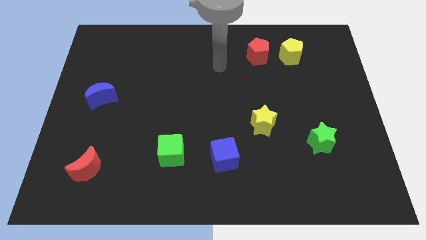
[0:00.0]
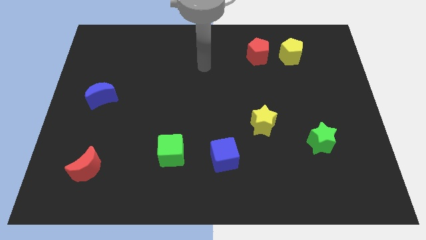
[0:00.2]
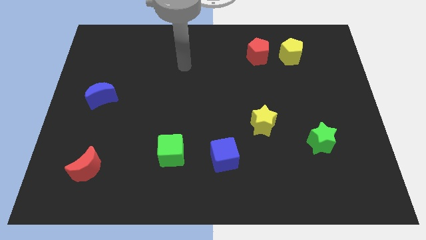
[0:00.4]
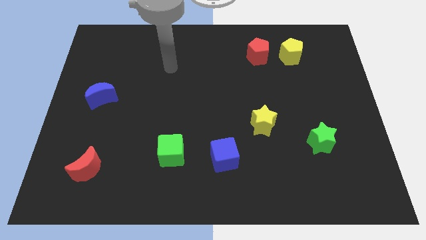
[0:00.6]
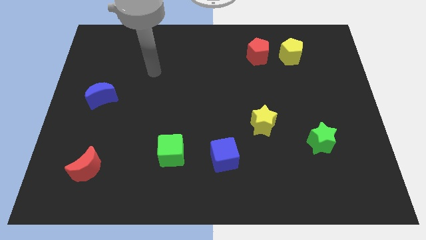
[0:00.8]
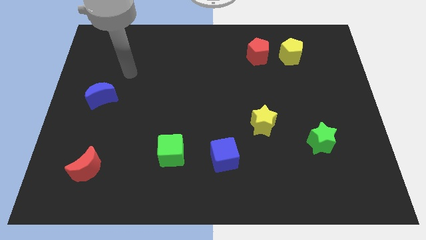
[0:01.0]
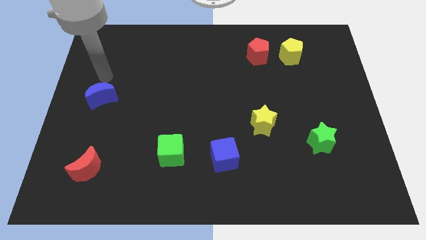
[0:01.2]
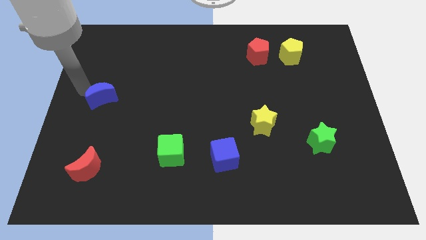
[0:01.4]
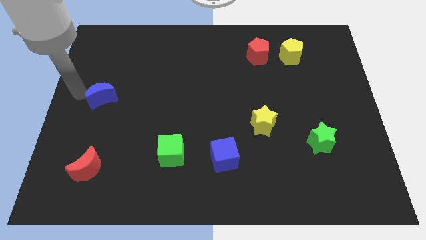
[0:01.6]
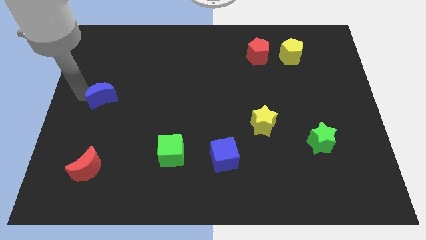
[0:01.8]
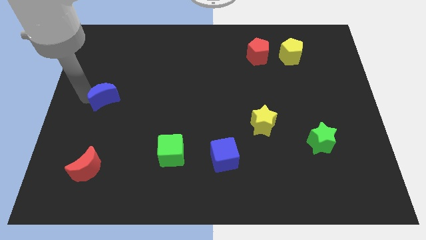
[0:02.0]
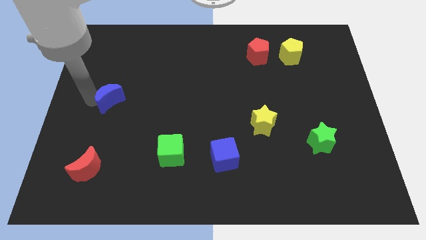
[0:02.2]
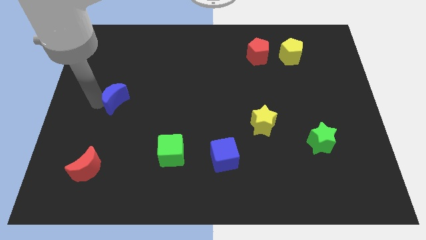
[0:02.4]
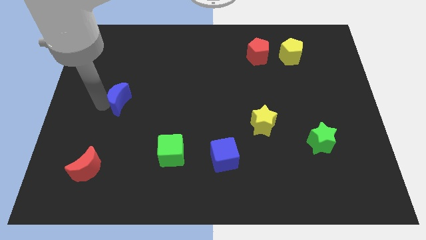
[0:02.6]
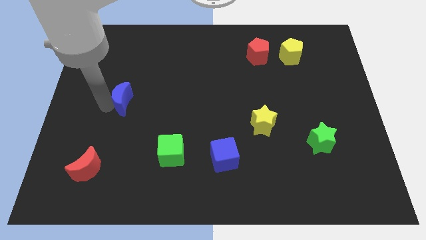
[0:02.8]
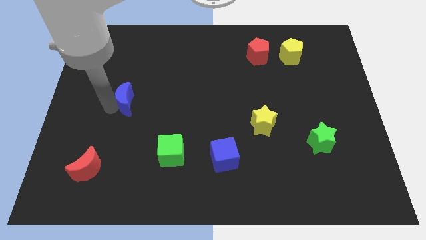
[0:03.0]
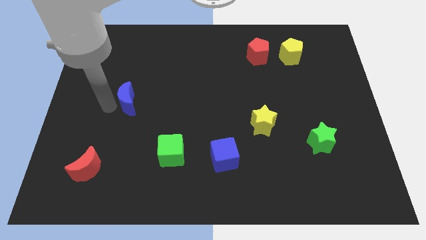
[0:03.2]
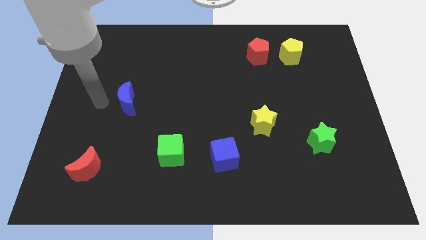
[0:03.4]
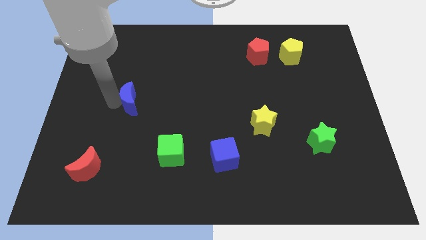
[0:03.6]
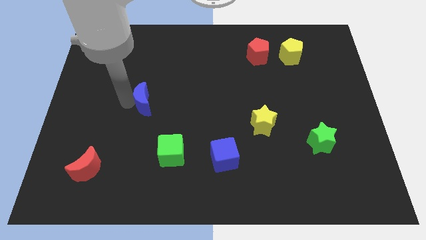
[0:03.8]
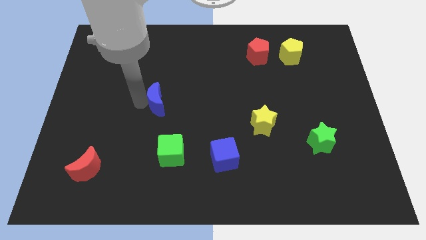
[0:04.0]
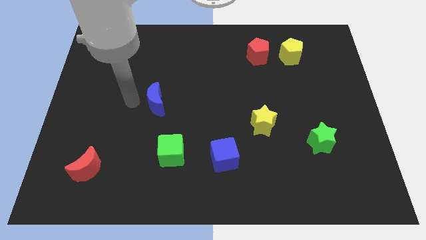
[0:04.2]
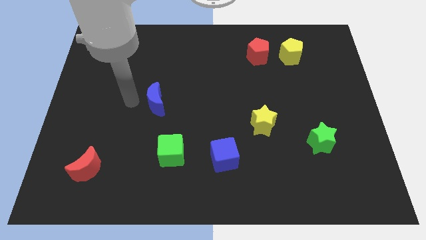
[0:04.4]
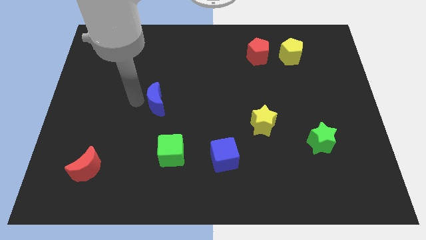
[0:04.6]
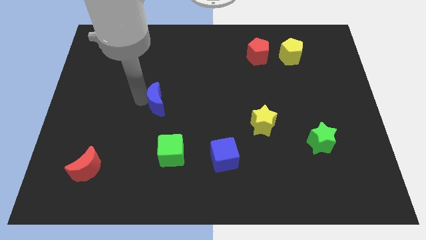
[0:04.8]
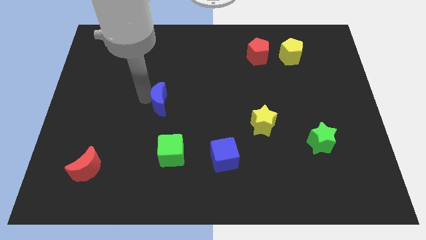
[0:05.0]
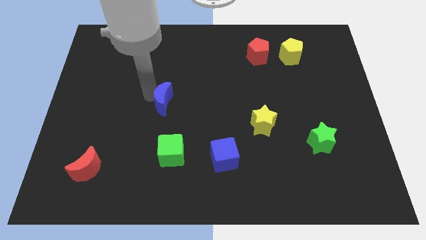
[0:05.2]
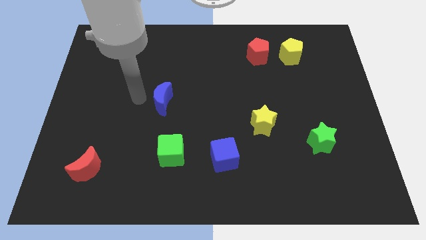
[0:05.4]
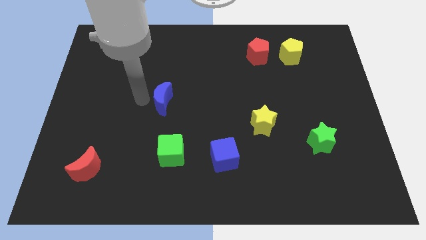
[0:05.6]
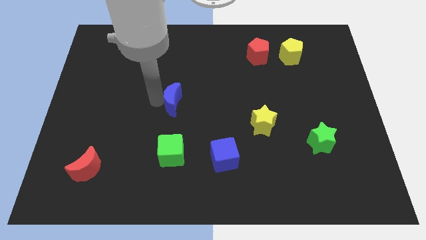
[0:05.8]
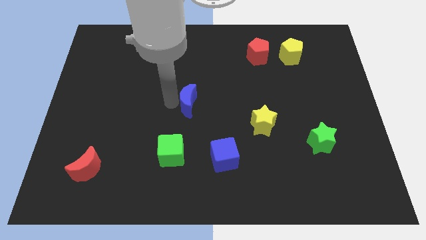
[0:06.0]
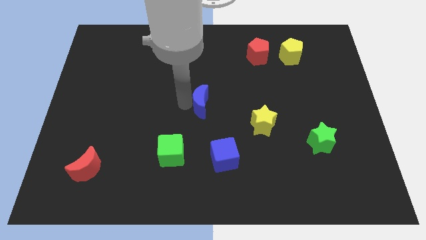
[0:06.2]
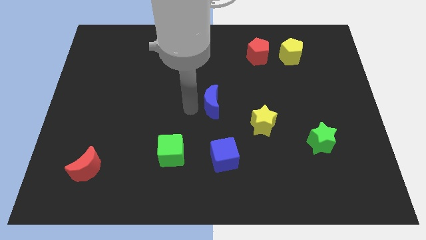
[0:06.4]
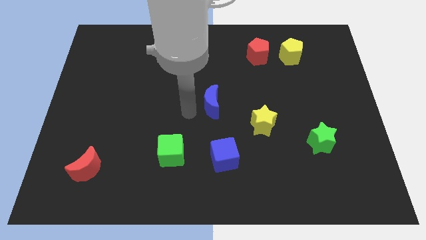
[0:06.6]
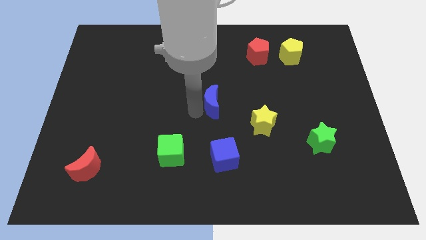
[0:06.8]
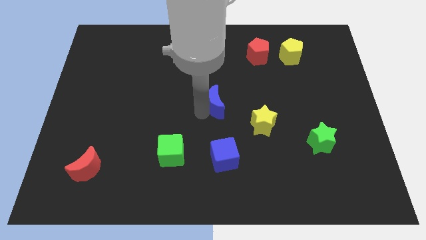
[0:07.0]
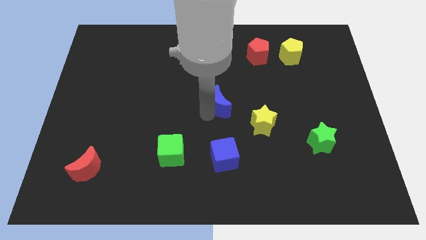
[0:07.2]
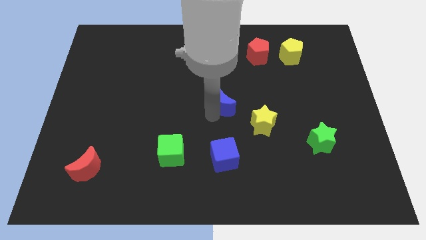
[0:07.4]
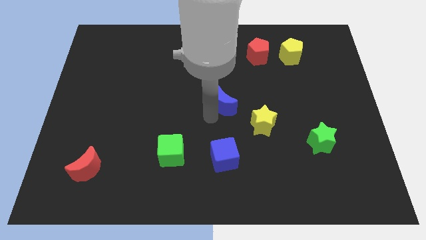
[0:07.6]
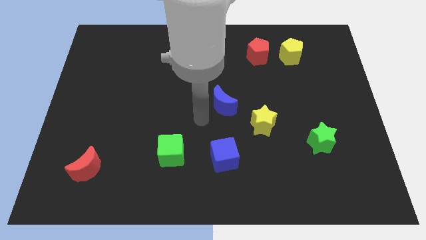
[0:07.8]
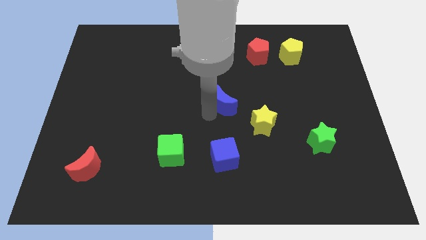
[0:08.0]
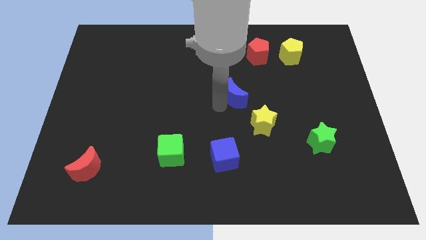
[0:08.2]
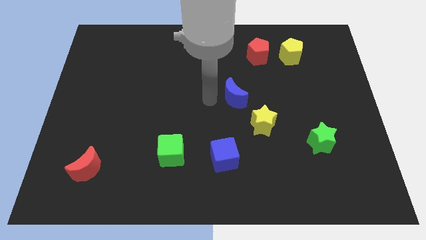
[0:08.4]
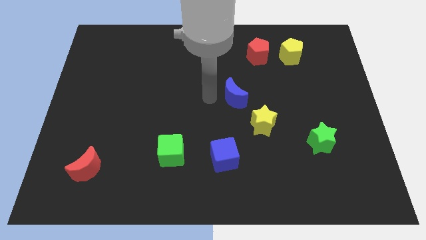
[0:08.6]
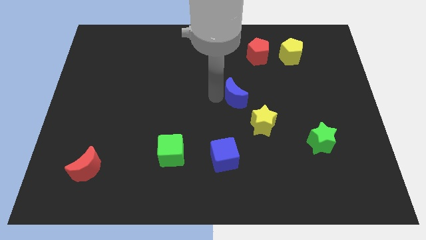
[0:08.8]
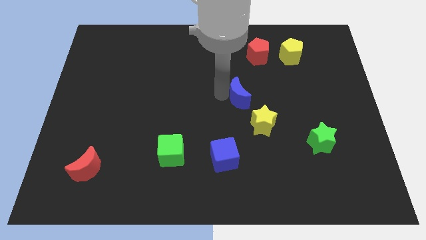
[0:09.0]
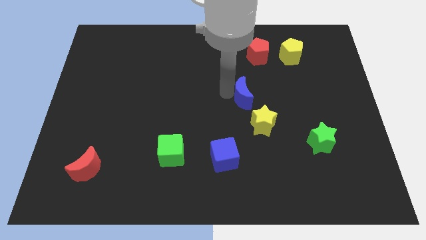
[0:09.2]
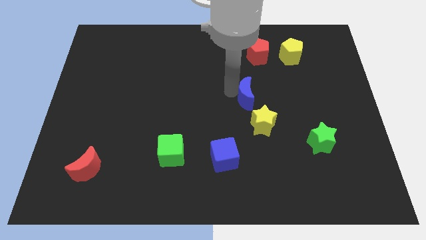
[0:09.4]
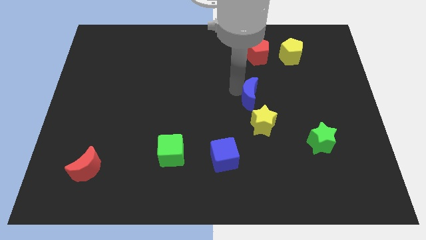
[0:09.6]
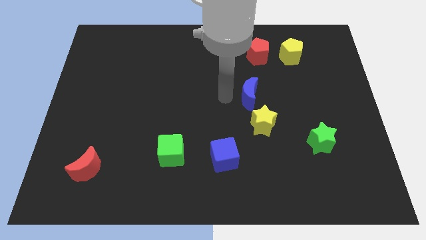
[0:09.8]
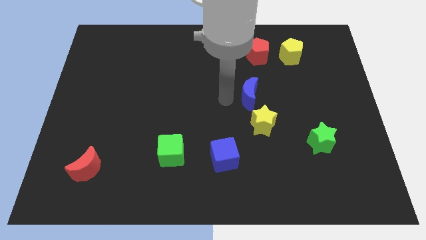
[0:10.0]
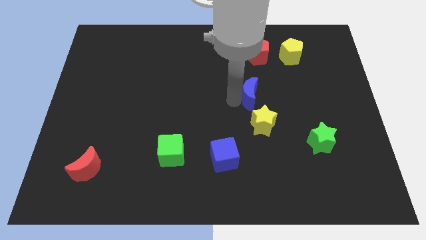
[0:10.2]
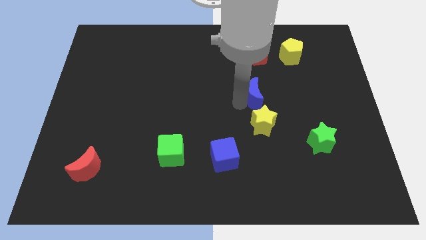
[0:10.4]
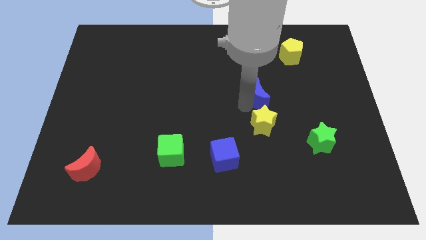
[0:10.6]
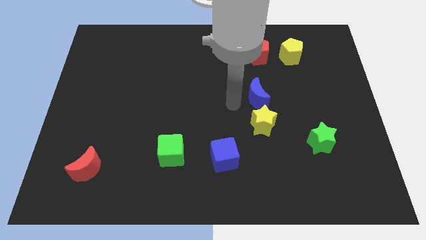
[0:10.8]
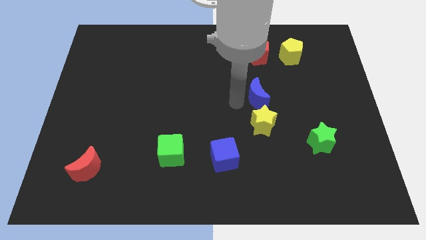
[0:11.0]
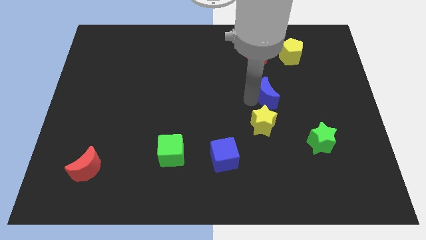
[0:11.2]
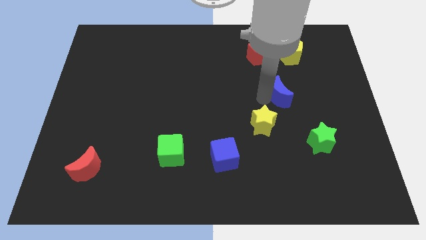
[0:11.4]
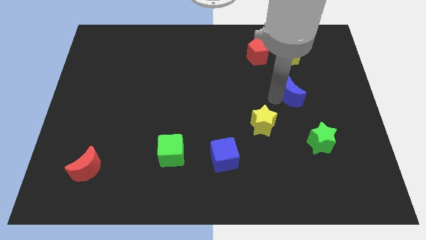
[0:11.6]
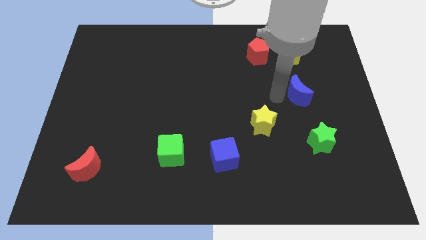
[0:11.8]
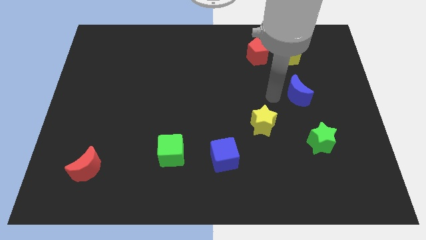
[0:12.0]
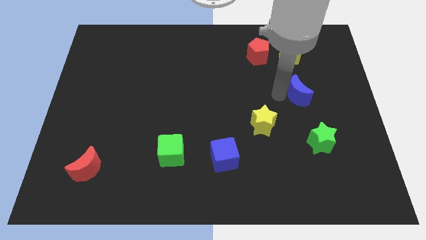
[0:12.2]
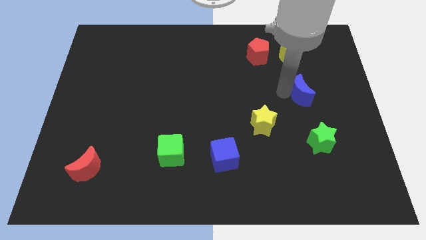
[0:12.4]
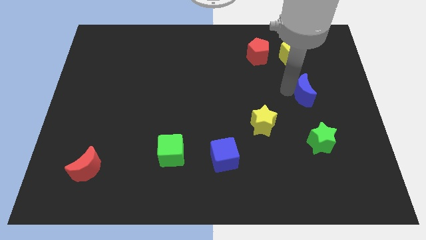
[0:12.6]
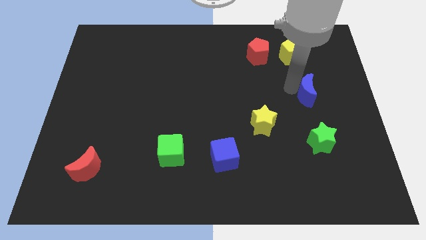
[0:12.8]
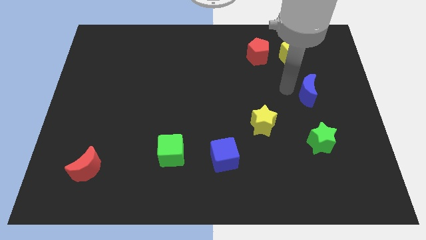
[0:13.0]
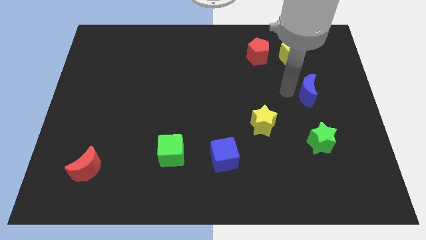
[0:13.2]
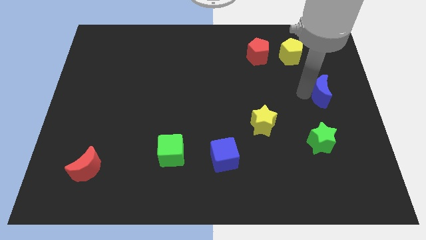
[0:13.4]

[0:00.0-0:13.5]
slide the blue moon to the center right

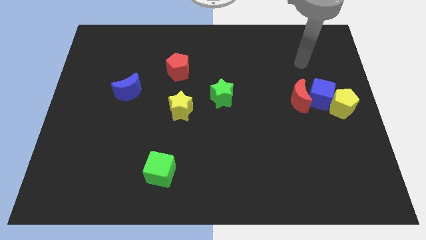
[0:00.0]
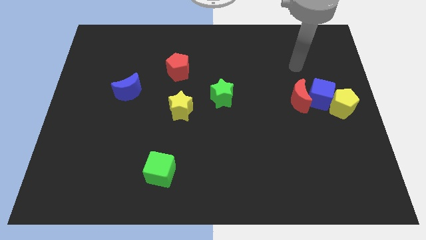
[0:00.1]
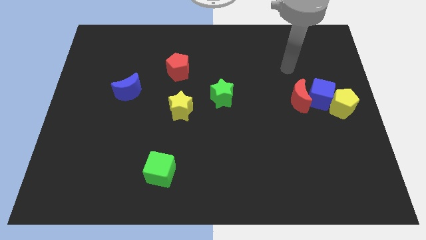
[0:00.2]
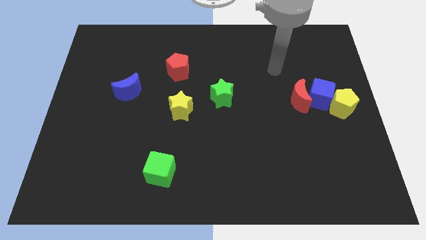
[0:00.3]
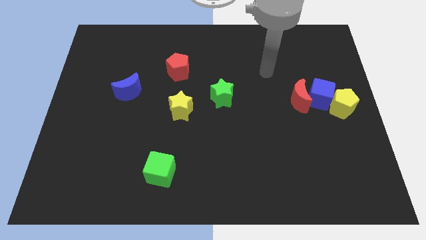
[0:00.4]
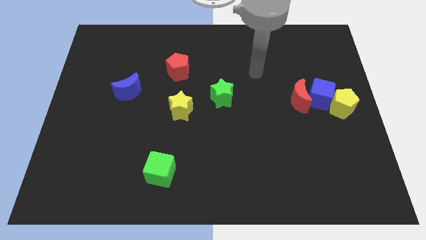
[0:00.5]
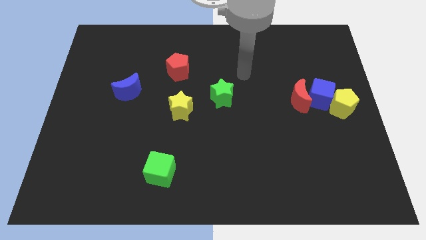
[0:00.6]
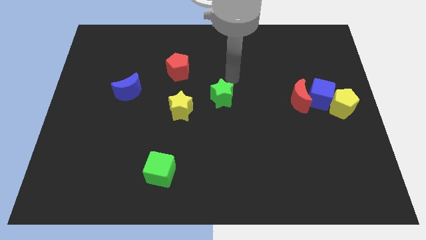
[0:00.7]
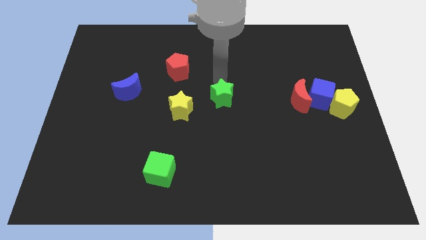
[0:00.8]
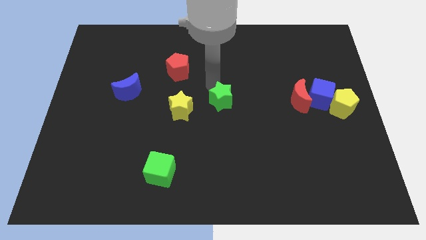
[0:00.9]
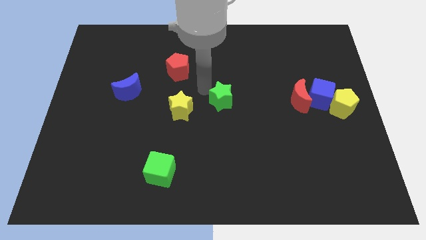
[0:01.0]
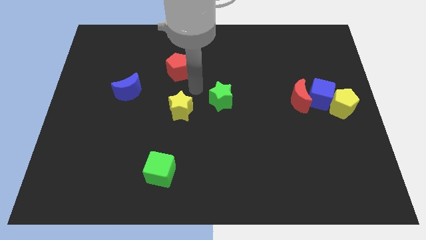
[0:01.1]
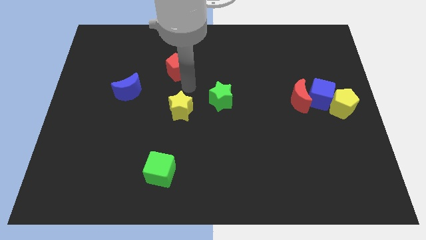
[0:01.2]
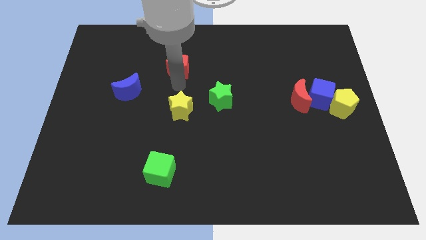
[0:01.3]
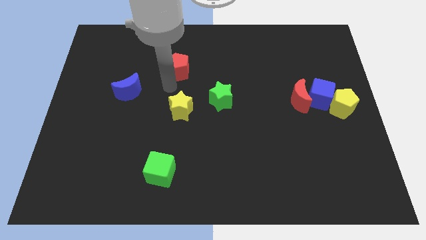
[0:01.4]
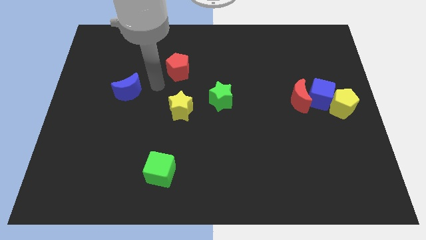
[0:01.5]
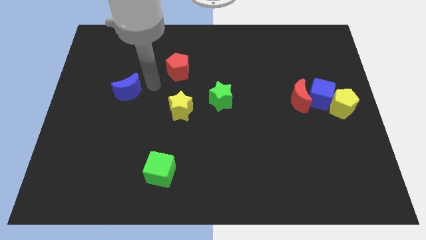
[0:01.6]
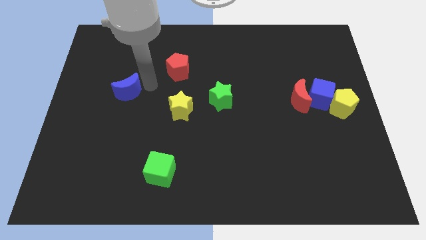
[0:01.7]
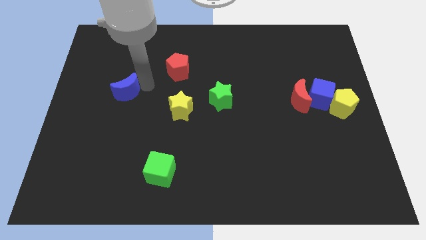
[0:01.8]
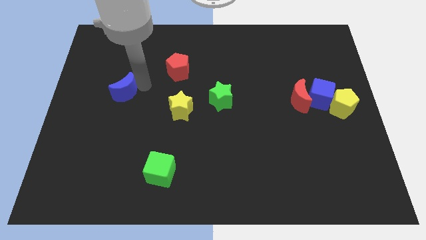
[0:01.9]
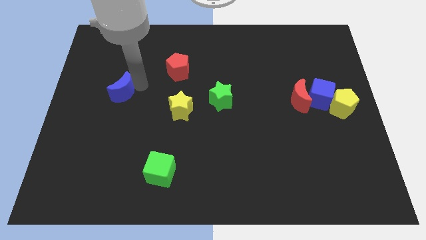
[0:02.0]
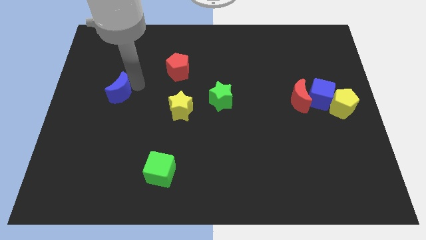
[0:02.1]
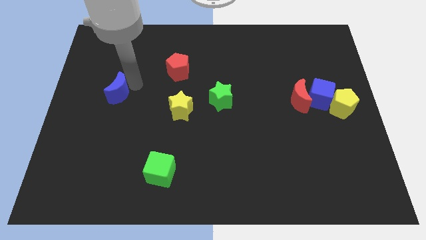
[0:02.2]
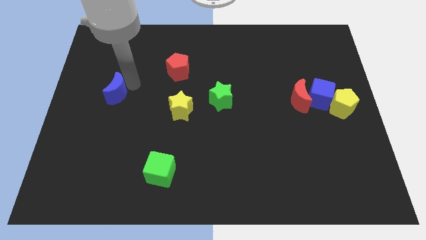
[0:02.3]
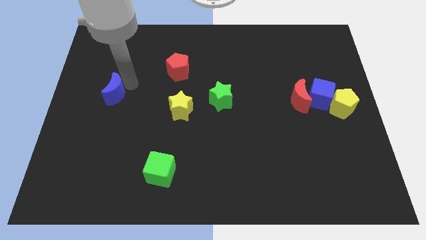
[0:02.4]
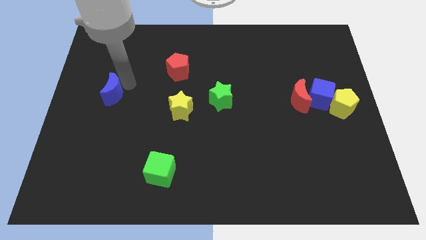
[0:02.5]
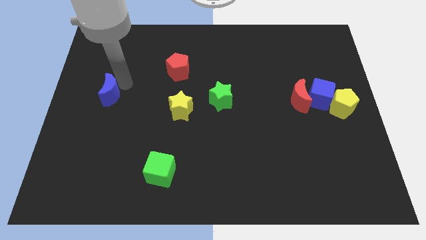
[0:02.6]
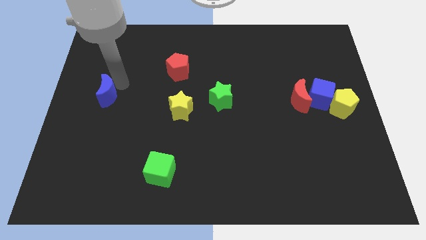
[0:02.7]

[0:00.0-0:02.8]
put the blue moon to the left side of the board
